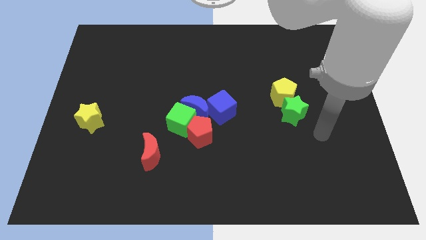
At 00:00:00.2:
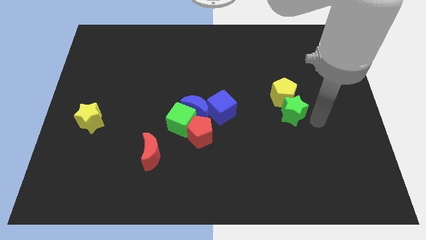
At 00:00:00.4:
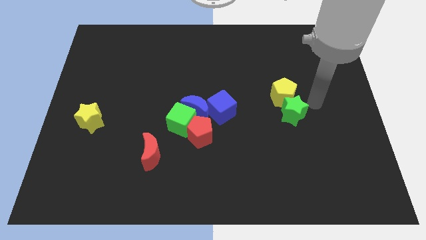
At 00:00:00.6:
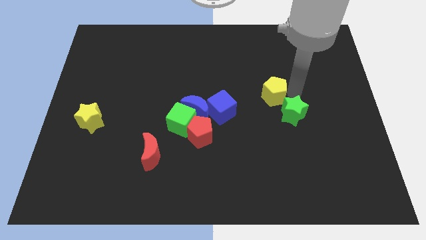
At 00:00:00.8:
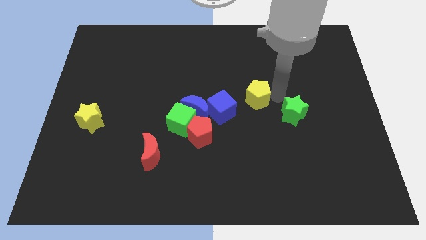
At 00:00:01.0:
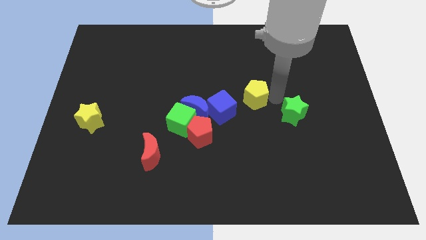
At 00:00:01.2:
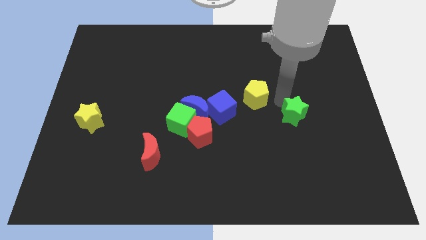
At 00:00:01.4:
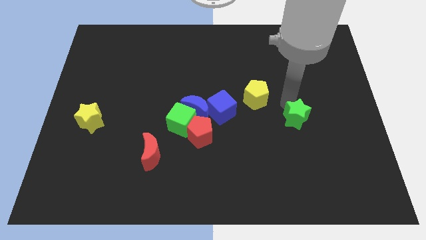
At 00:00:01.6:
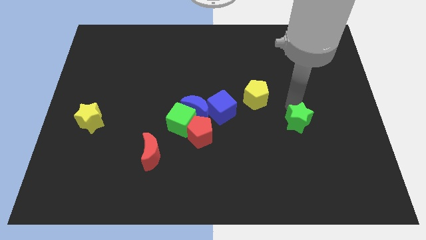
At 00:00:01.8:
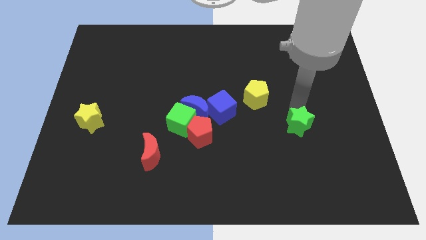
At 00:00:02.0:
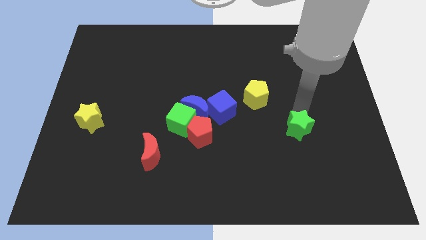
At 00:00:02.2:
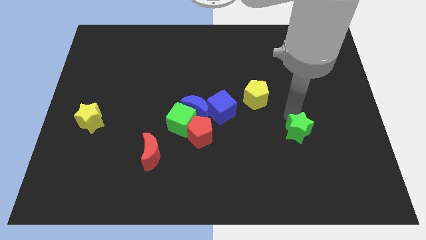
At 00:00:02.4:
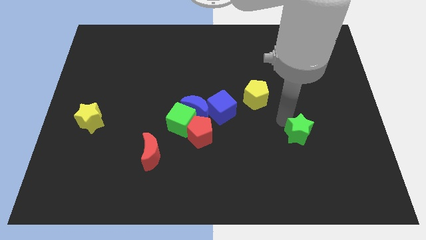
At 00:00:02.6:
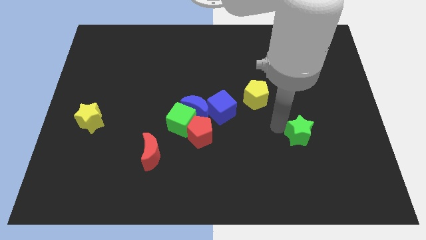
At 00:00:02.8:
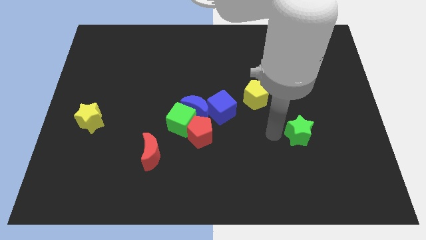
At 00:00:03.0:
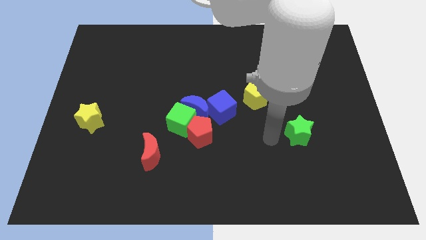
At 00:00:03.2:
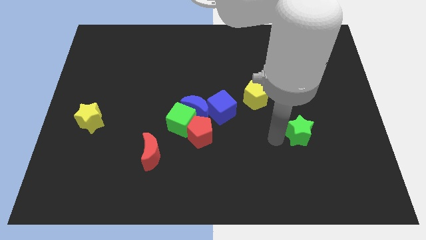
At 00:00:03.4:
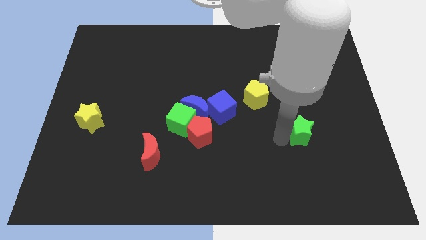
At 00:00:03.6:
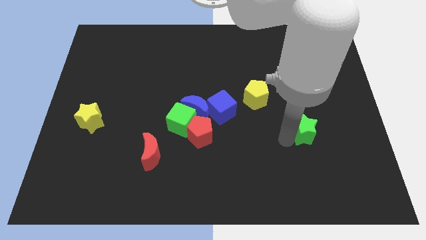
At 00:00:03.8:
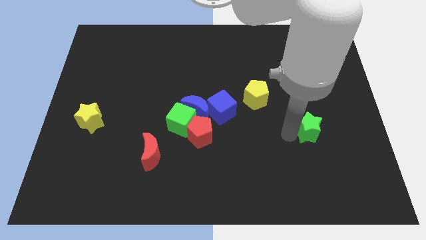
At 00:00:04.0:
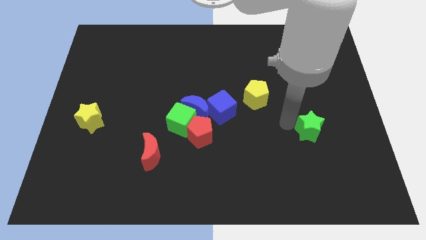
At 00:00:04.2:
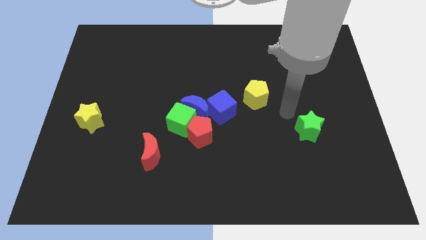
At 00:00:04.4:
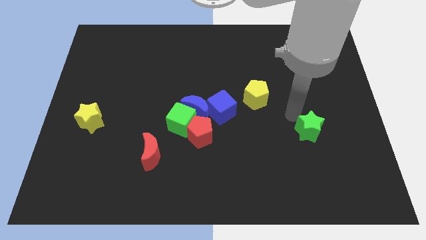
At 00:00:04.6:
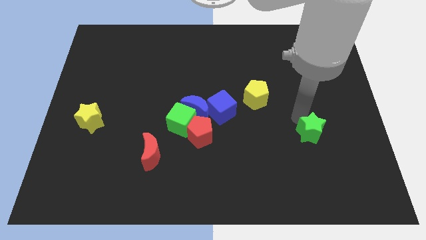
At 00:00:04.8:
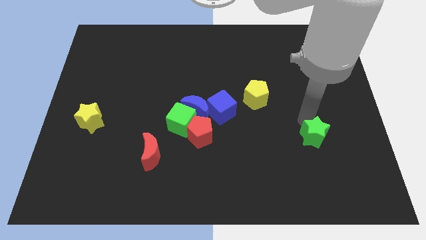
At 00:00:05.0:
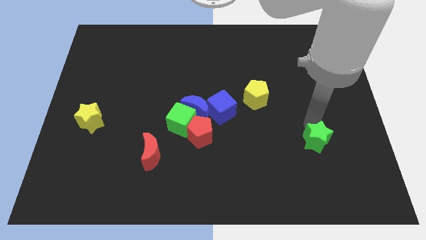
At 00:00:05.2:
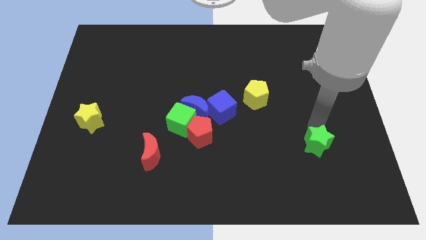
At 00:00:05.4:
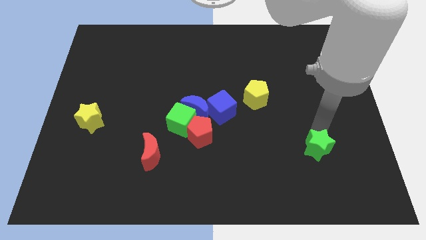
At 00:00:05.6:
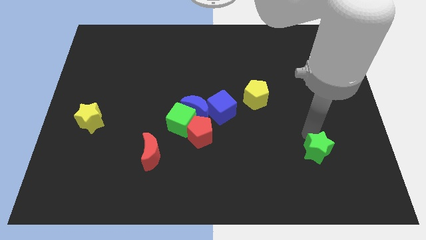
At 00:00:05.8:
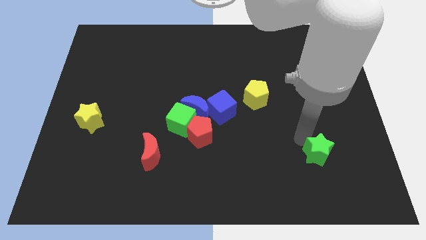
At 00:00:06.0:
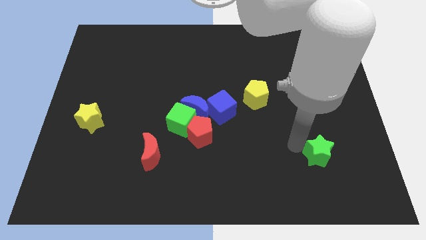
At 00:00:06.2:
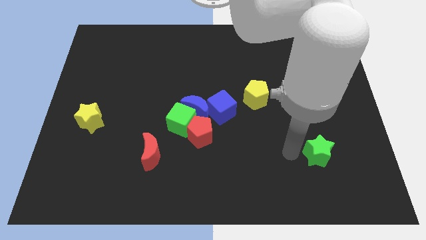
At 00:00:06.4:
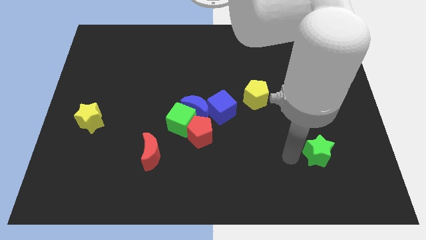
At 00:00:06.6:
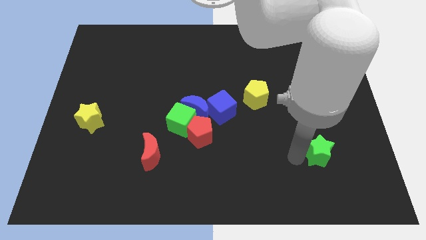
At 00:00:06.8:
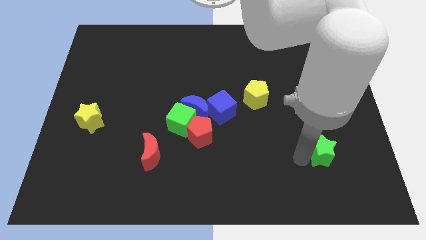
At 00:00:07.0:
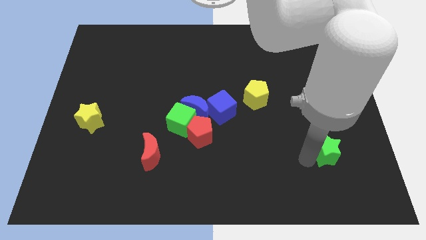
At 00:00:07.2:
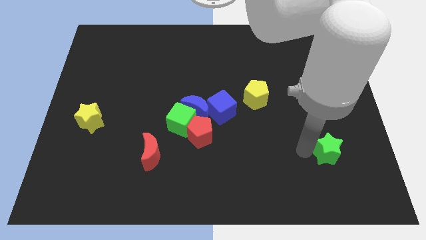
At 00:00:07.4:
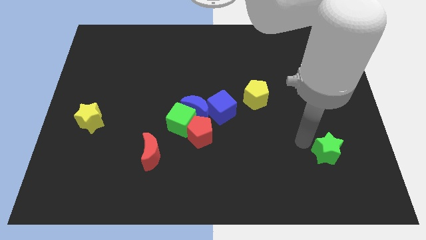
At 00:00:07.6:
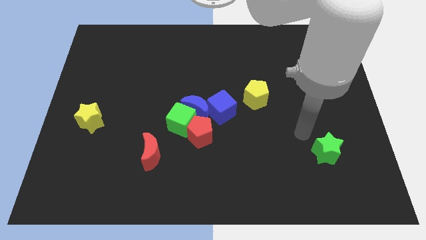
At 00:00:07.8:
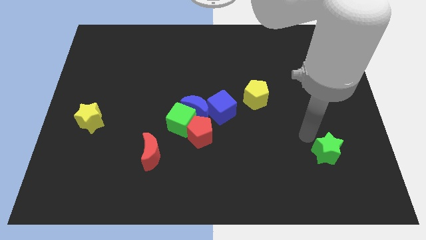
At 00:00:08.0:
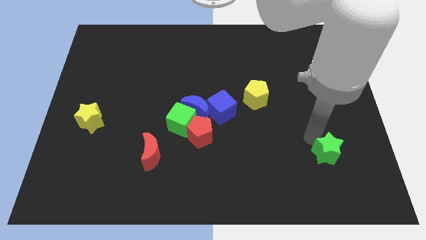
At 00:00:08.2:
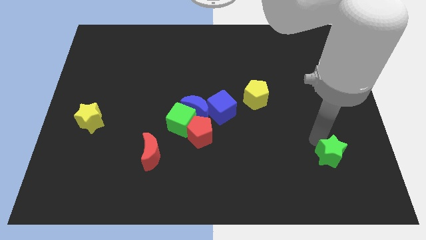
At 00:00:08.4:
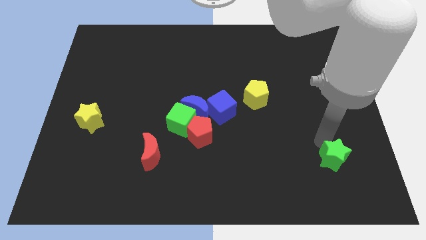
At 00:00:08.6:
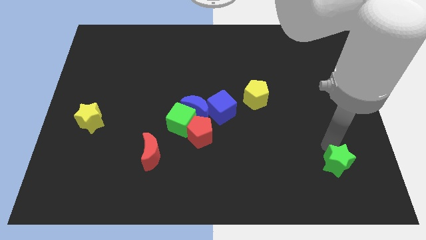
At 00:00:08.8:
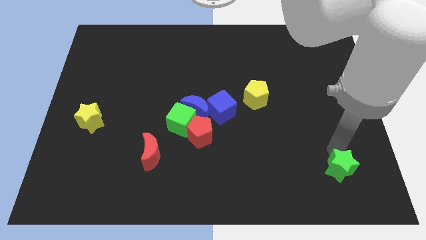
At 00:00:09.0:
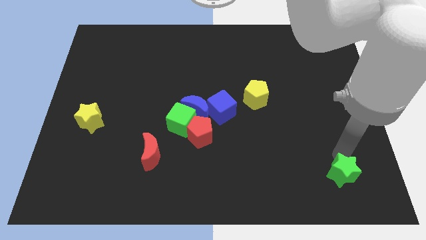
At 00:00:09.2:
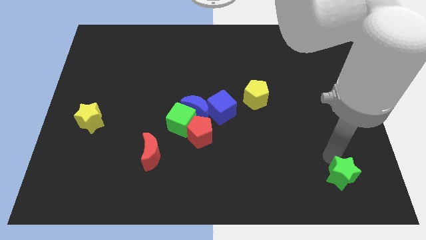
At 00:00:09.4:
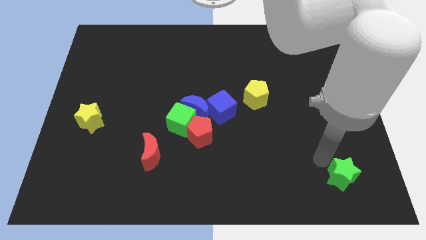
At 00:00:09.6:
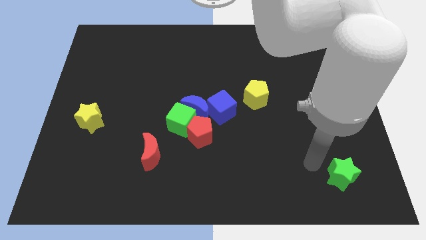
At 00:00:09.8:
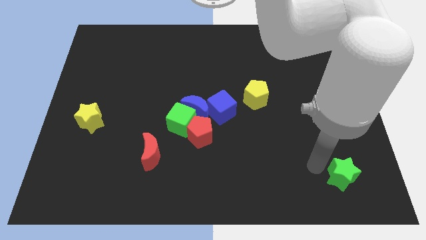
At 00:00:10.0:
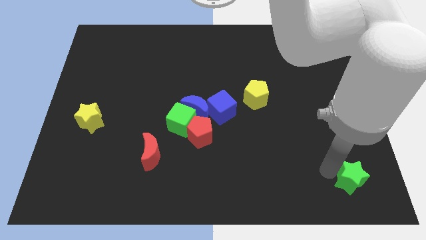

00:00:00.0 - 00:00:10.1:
slide the green star to the bottom right

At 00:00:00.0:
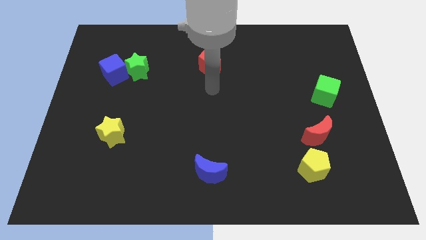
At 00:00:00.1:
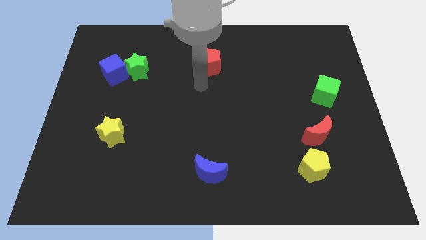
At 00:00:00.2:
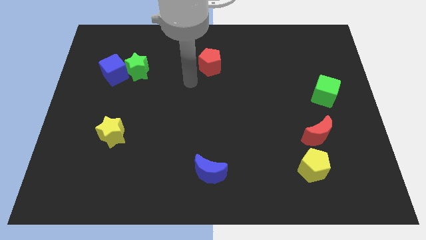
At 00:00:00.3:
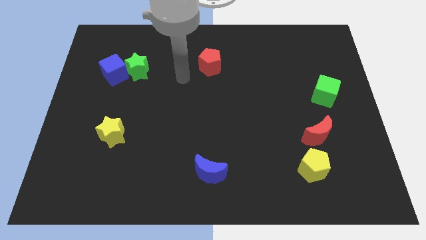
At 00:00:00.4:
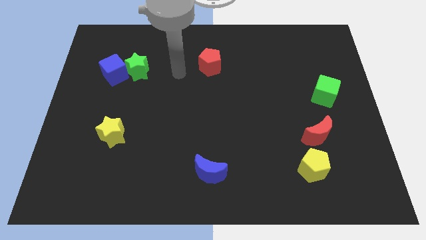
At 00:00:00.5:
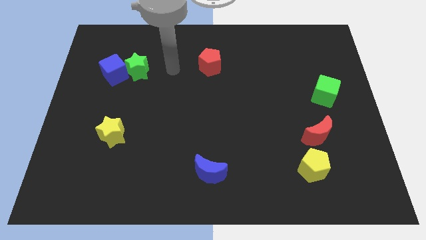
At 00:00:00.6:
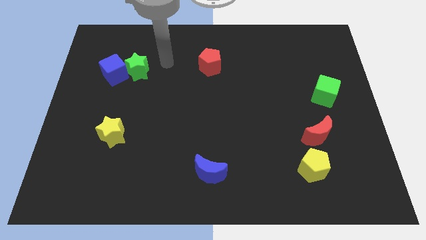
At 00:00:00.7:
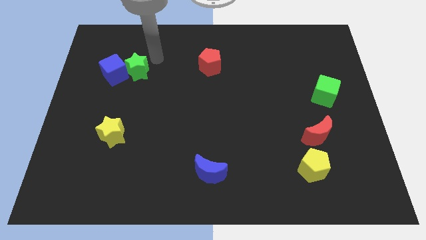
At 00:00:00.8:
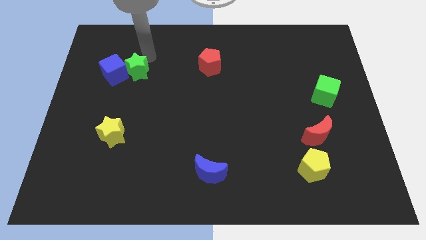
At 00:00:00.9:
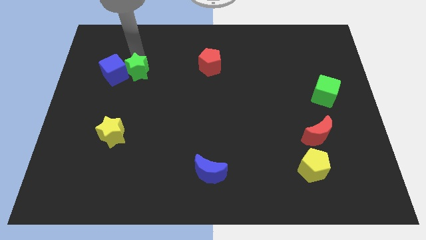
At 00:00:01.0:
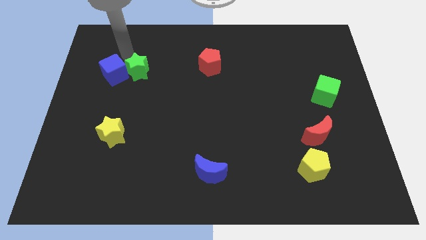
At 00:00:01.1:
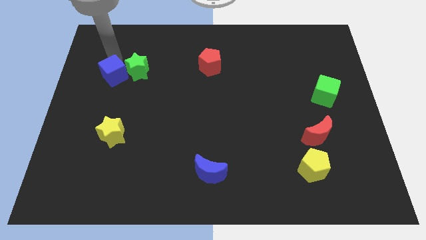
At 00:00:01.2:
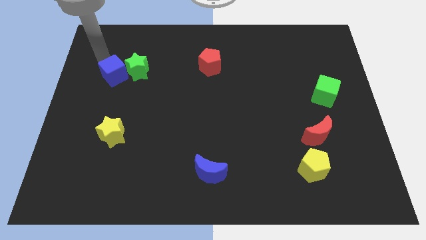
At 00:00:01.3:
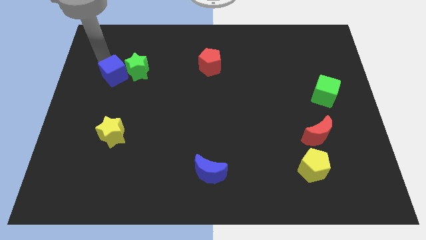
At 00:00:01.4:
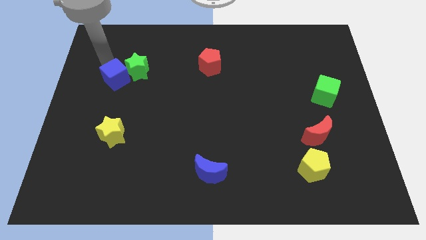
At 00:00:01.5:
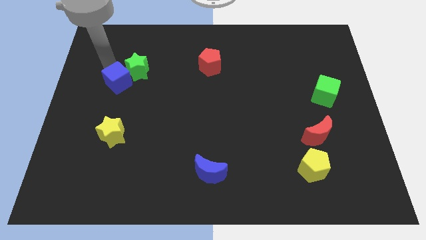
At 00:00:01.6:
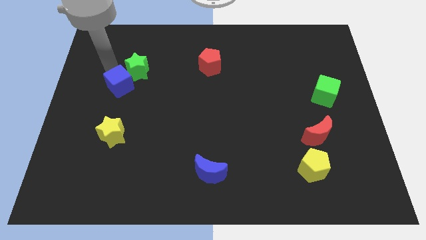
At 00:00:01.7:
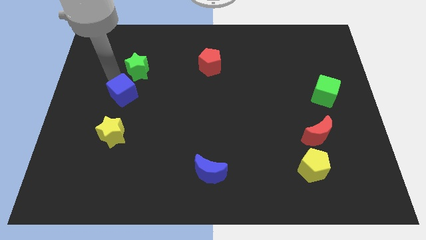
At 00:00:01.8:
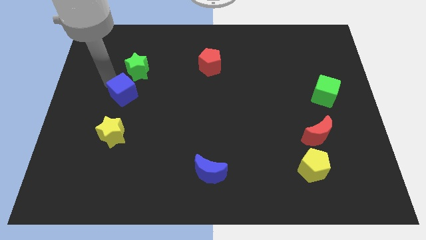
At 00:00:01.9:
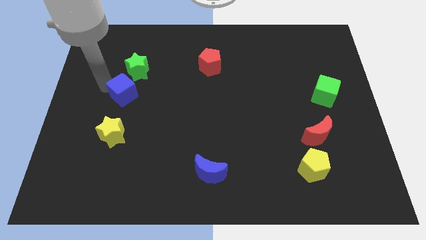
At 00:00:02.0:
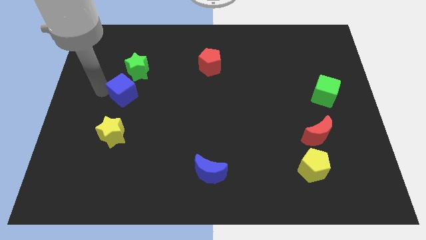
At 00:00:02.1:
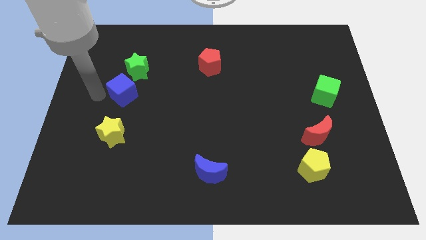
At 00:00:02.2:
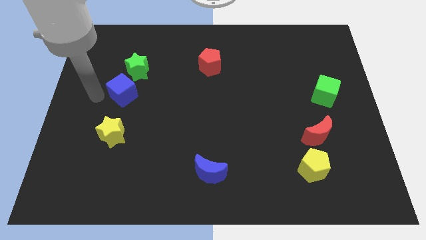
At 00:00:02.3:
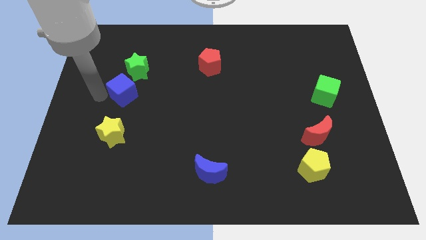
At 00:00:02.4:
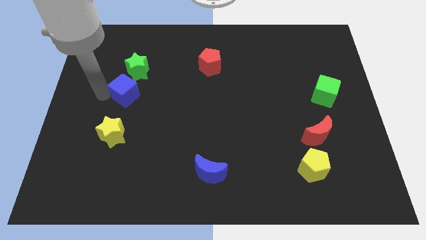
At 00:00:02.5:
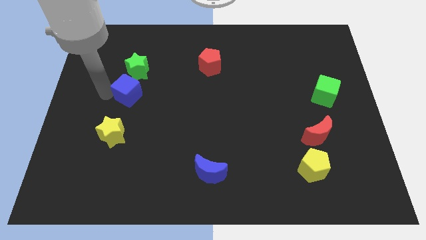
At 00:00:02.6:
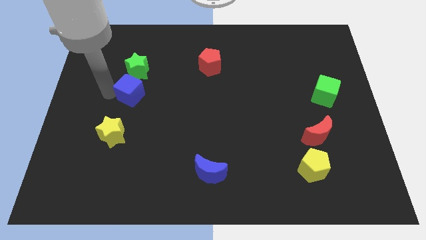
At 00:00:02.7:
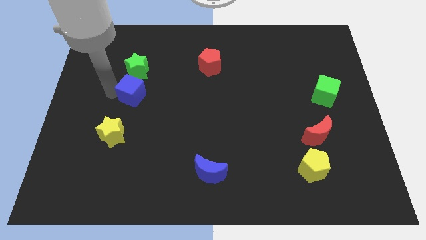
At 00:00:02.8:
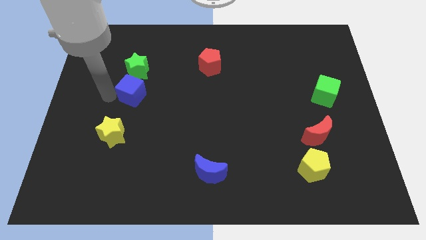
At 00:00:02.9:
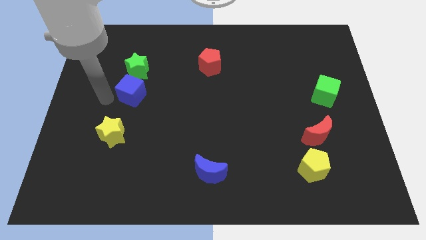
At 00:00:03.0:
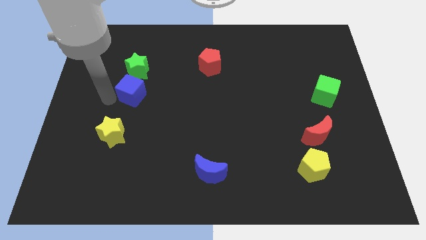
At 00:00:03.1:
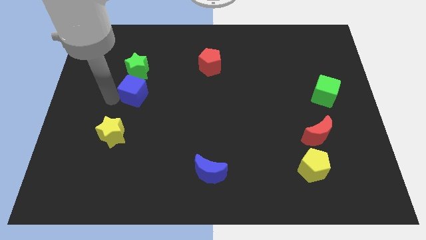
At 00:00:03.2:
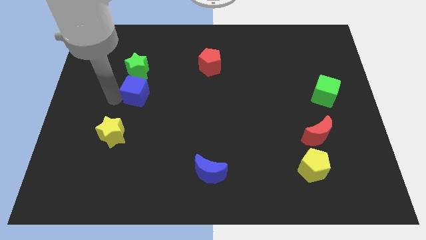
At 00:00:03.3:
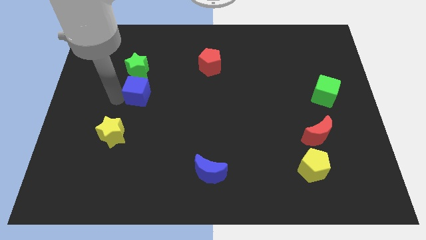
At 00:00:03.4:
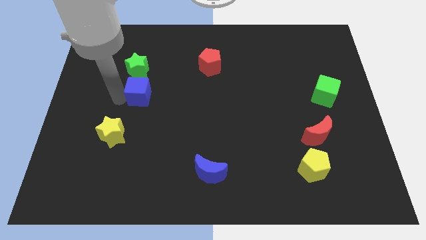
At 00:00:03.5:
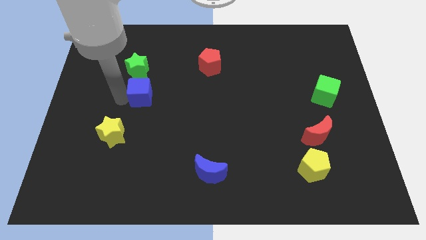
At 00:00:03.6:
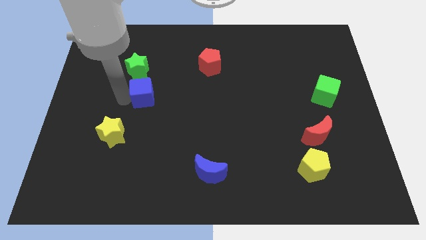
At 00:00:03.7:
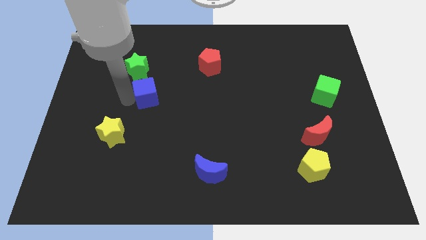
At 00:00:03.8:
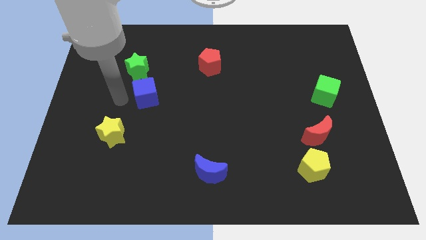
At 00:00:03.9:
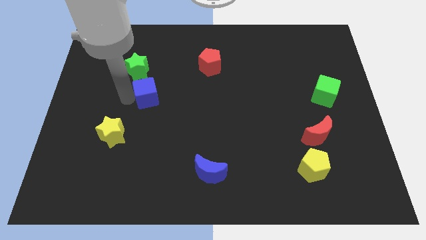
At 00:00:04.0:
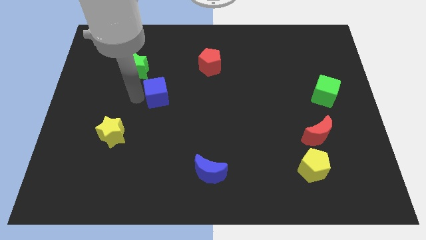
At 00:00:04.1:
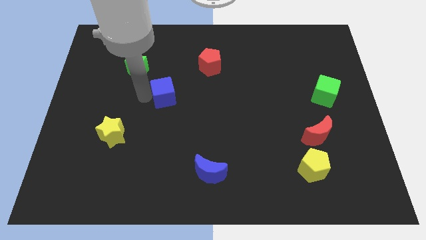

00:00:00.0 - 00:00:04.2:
move the blue cube to the center of the board
